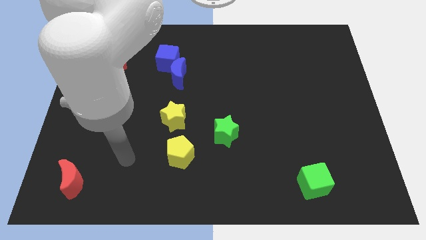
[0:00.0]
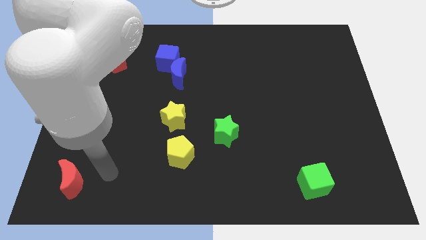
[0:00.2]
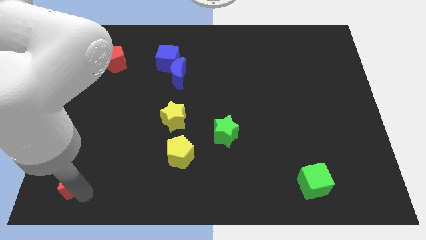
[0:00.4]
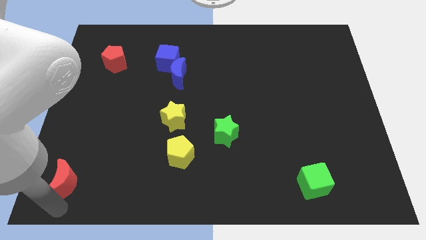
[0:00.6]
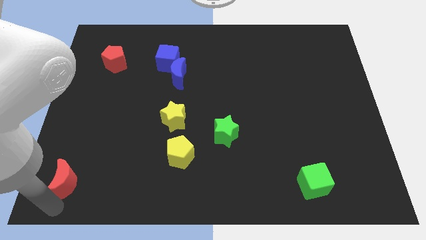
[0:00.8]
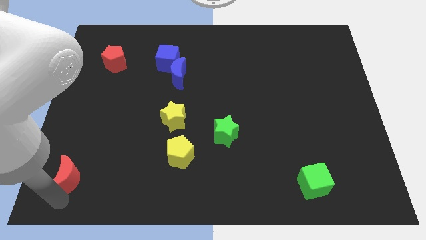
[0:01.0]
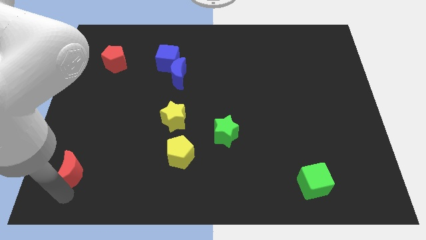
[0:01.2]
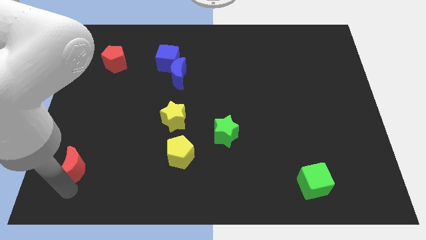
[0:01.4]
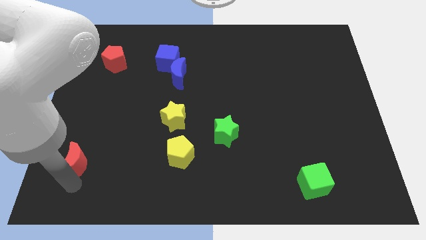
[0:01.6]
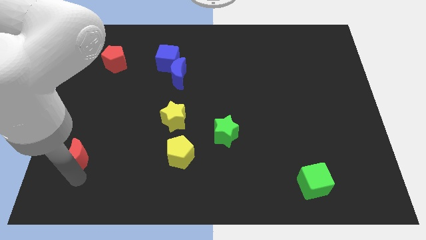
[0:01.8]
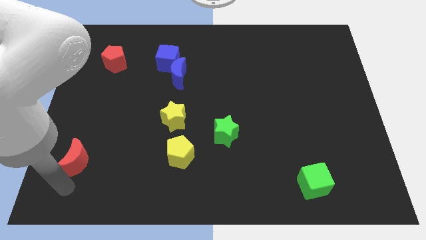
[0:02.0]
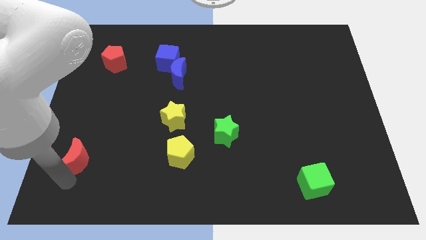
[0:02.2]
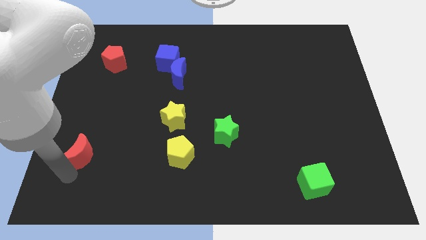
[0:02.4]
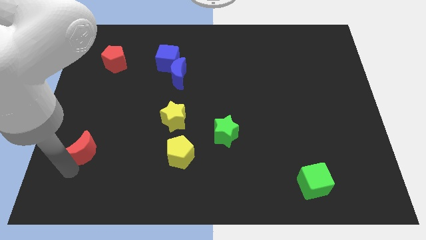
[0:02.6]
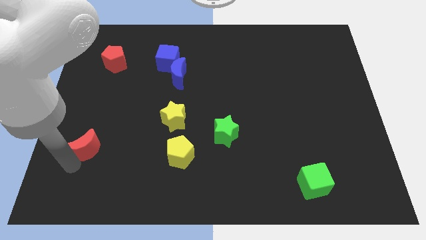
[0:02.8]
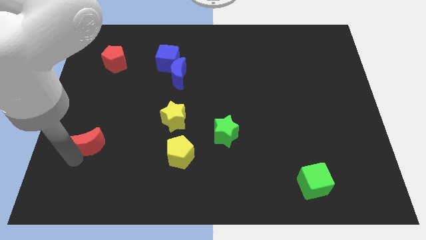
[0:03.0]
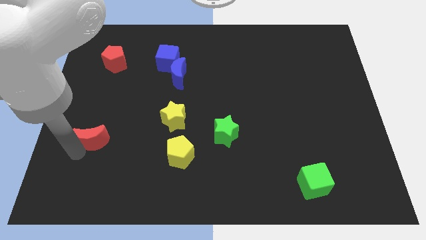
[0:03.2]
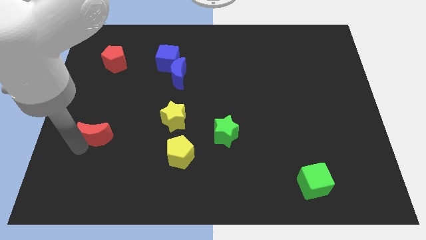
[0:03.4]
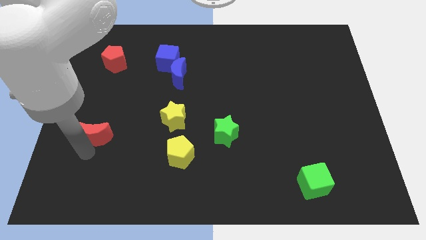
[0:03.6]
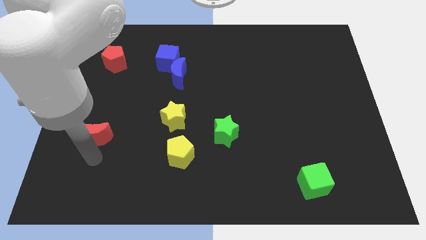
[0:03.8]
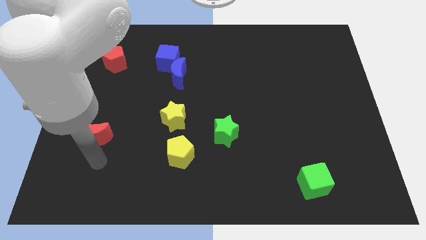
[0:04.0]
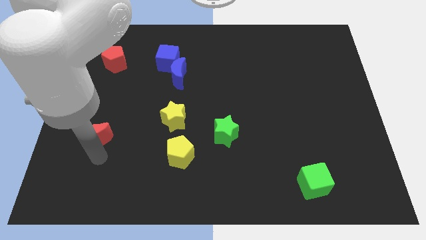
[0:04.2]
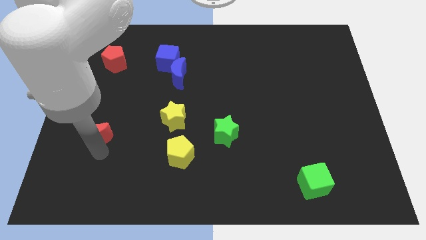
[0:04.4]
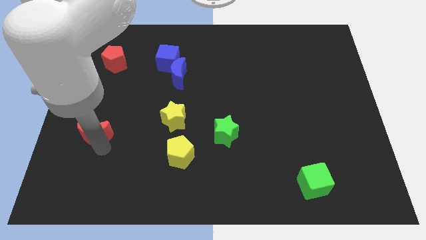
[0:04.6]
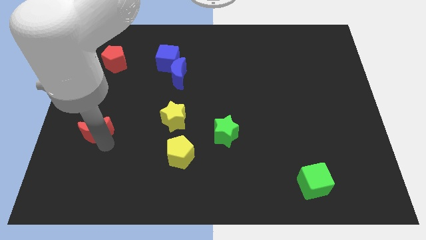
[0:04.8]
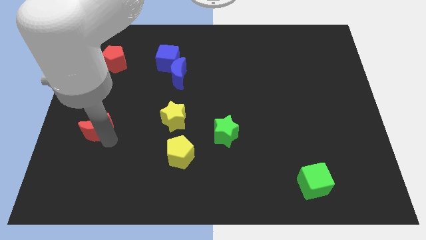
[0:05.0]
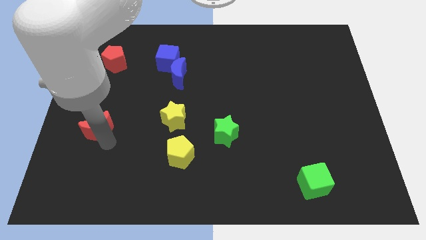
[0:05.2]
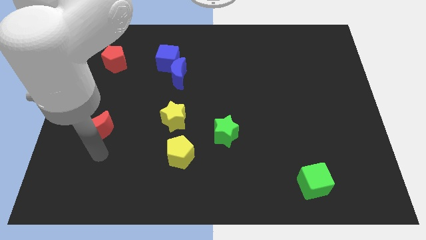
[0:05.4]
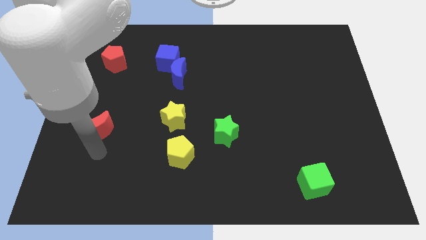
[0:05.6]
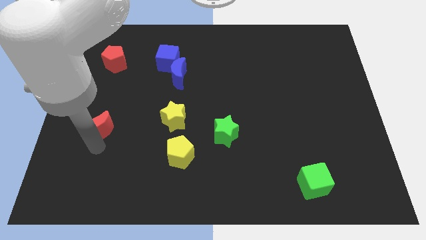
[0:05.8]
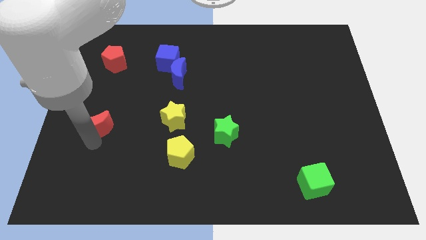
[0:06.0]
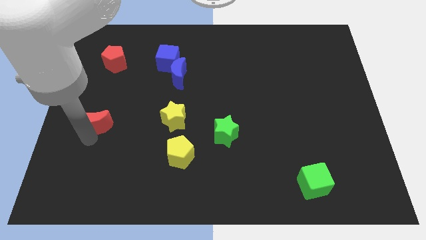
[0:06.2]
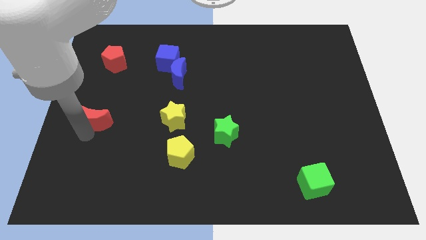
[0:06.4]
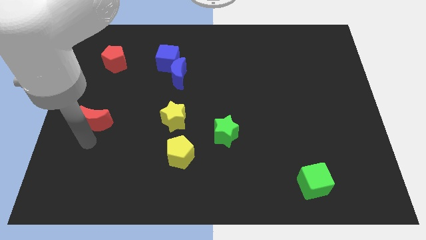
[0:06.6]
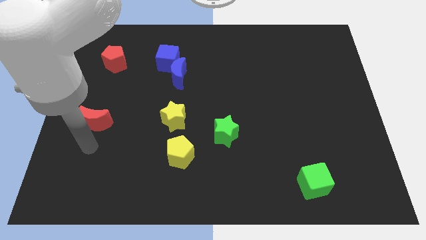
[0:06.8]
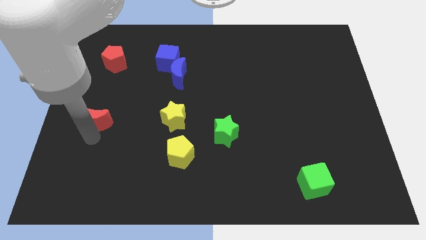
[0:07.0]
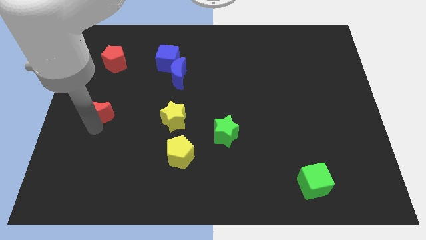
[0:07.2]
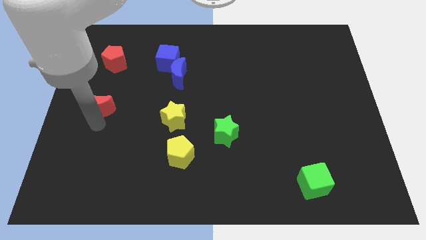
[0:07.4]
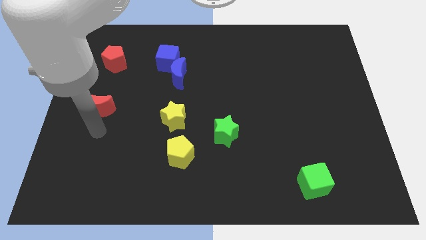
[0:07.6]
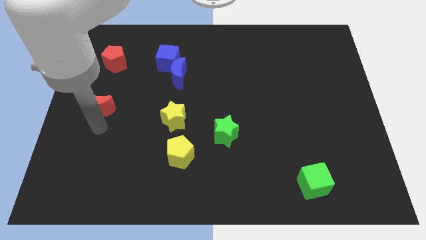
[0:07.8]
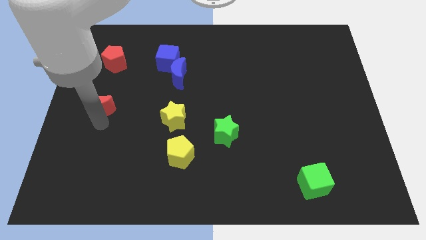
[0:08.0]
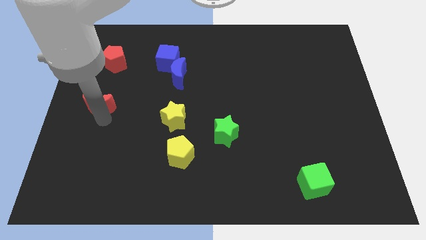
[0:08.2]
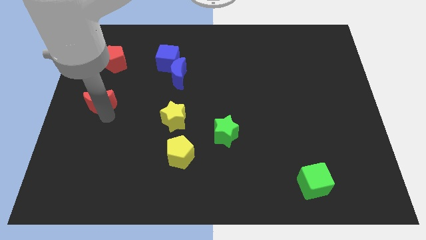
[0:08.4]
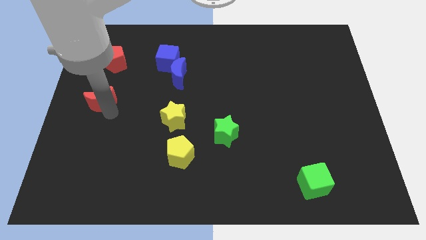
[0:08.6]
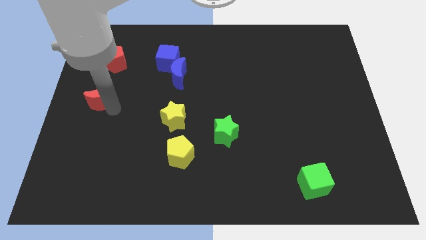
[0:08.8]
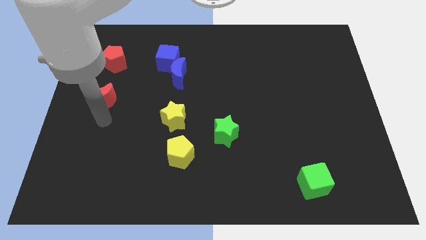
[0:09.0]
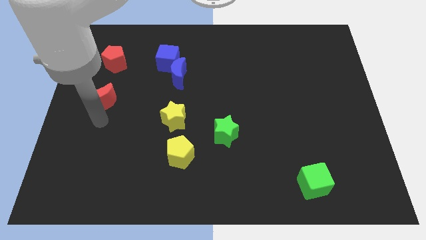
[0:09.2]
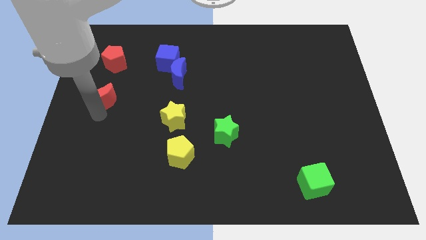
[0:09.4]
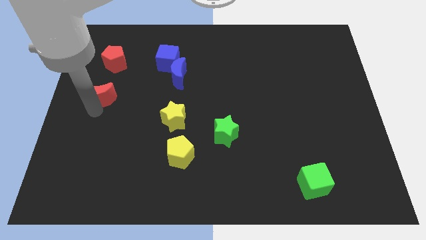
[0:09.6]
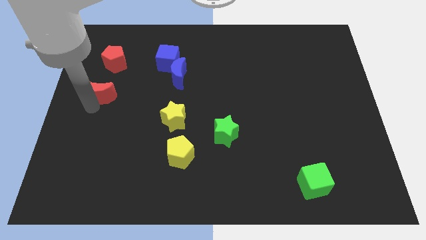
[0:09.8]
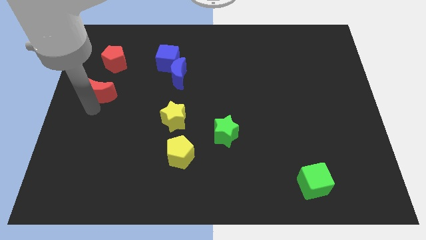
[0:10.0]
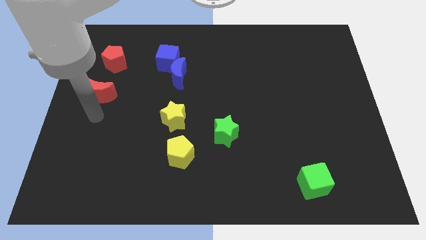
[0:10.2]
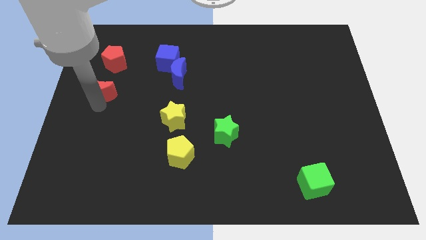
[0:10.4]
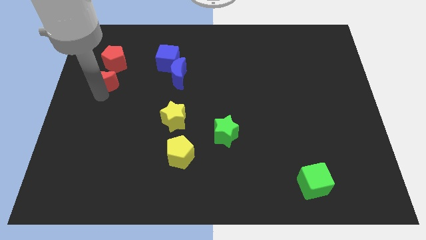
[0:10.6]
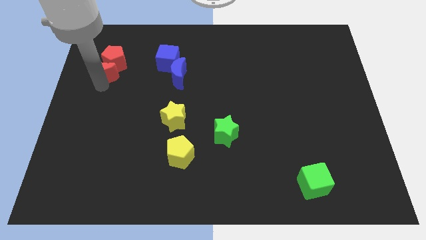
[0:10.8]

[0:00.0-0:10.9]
put the red moon close to the red pentagon

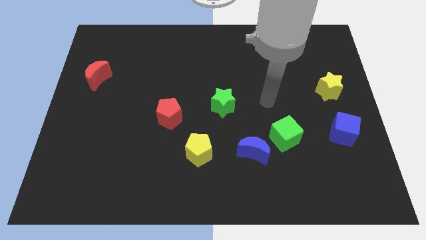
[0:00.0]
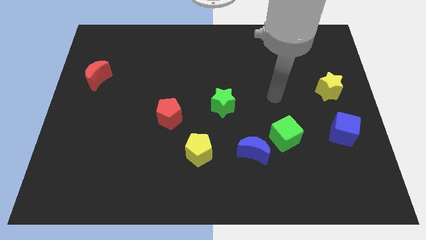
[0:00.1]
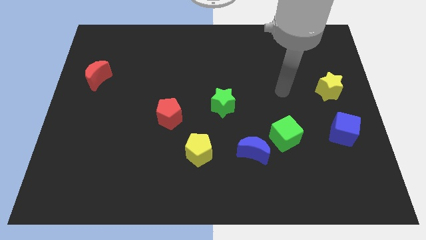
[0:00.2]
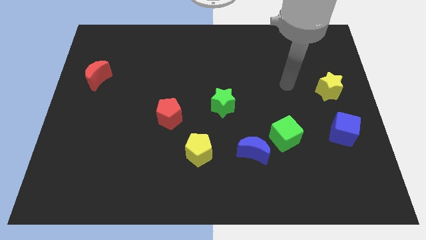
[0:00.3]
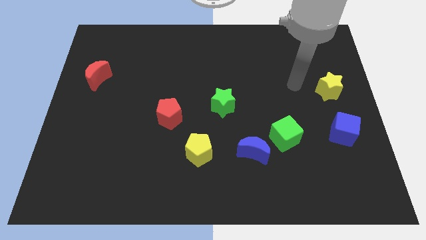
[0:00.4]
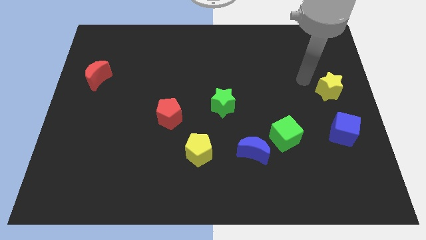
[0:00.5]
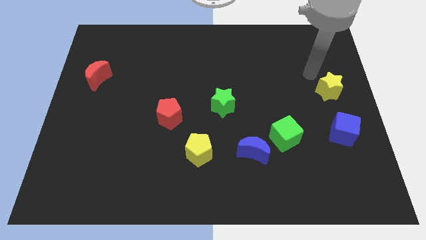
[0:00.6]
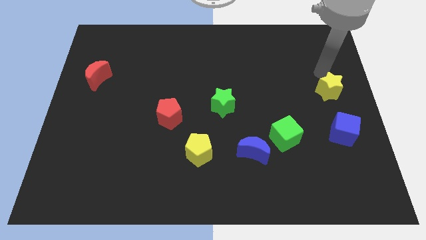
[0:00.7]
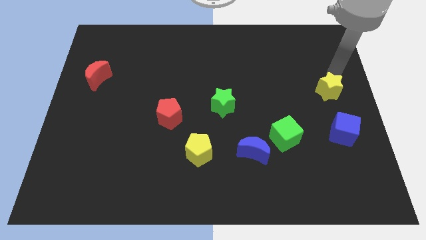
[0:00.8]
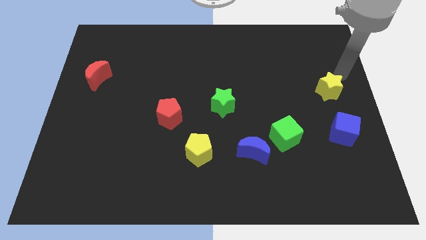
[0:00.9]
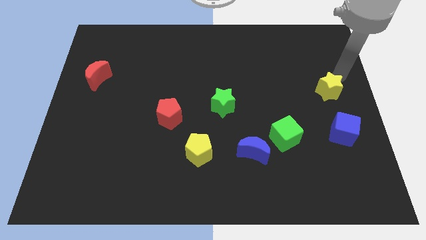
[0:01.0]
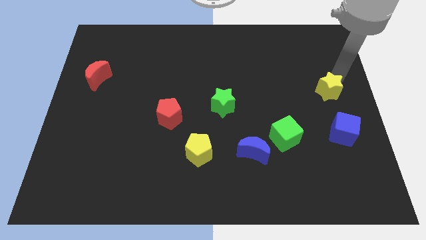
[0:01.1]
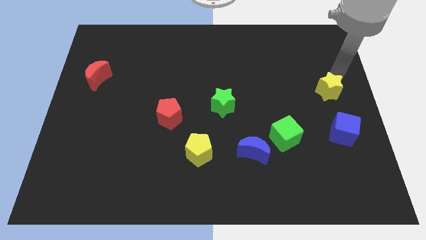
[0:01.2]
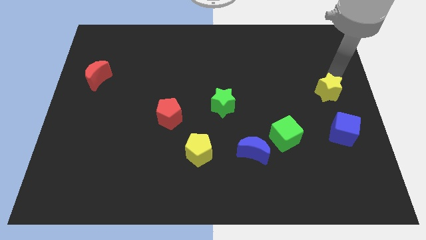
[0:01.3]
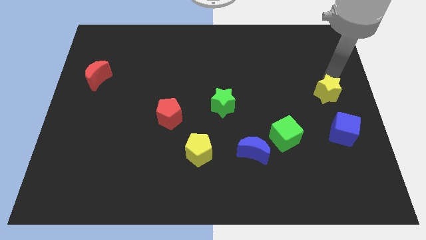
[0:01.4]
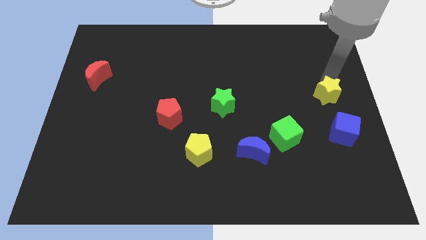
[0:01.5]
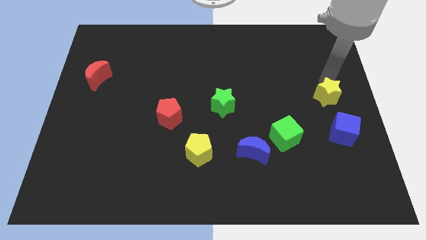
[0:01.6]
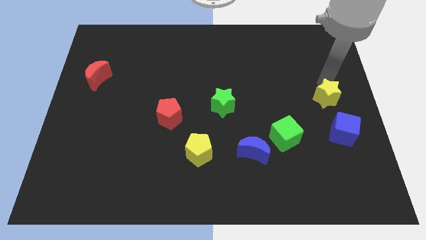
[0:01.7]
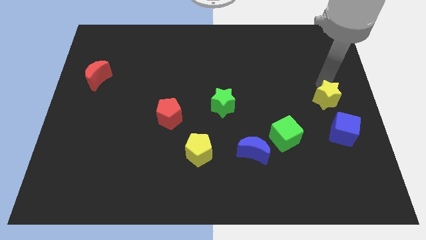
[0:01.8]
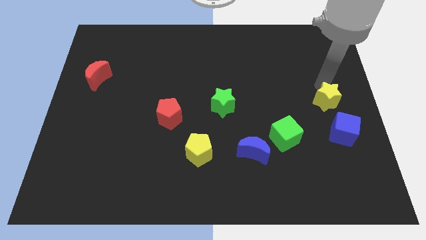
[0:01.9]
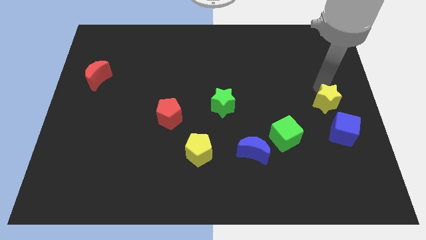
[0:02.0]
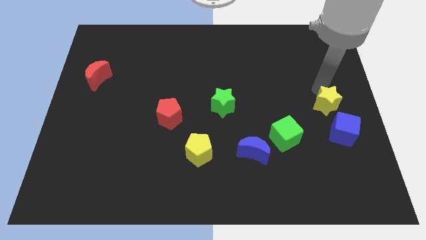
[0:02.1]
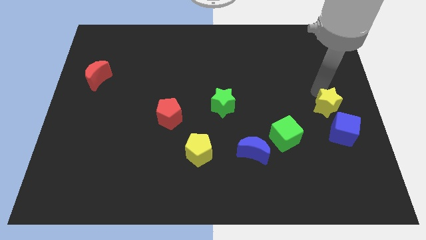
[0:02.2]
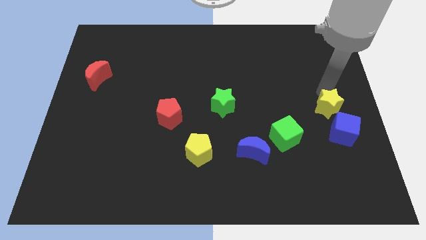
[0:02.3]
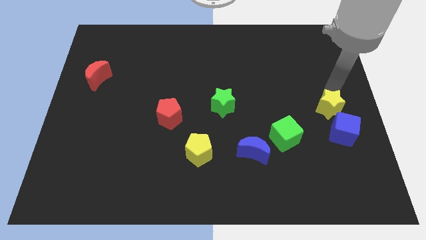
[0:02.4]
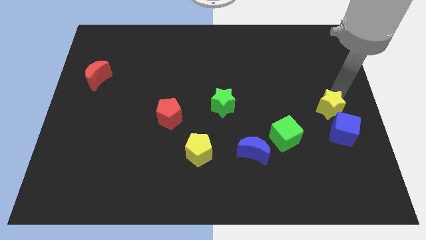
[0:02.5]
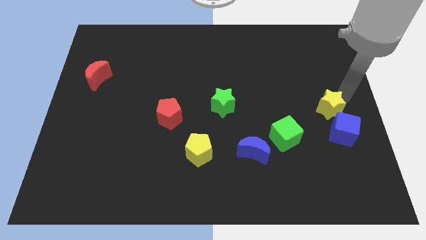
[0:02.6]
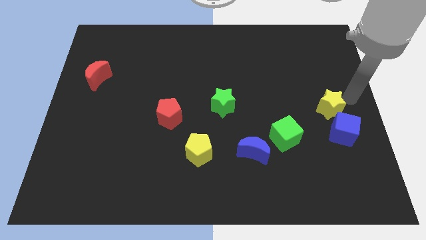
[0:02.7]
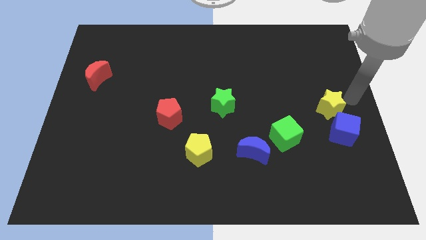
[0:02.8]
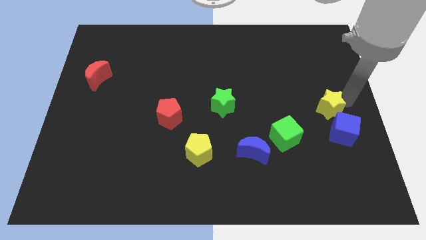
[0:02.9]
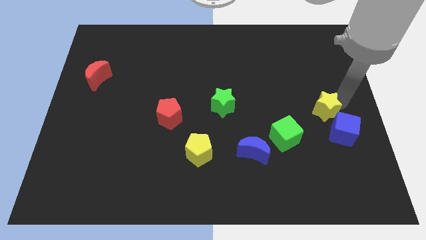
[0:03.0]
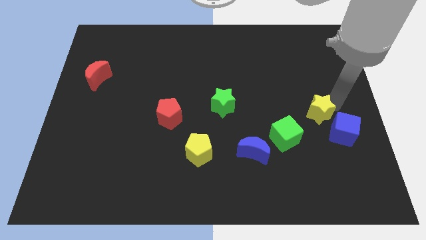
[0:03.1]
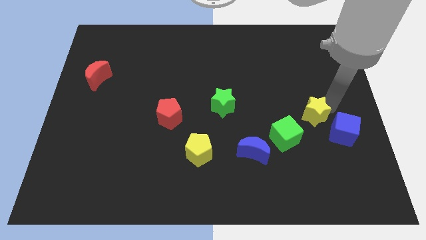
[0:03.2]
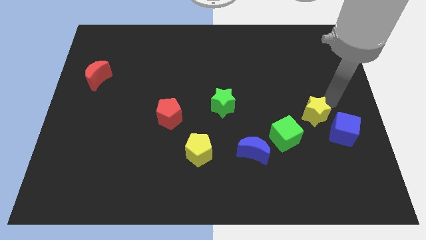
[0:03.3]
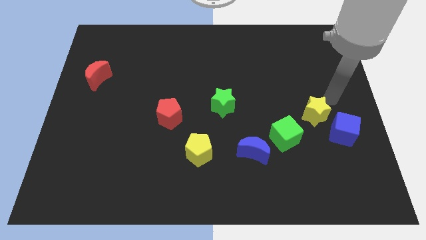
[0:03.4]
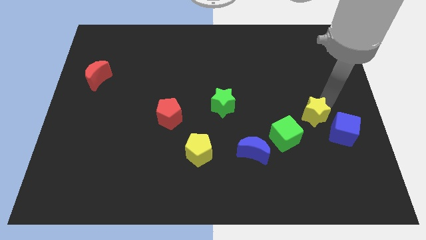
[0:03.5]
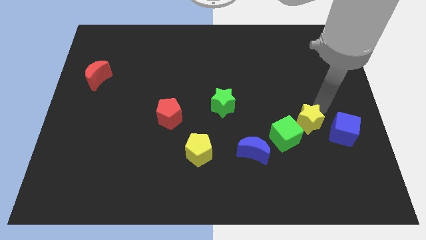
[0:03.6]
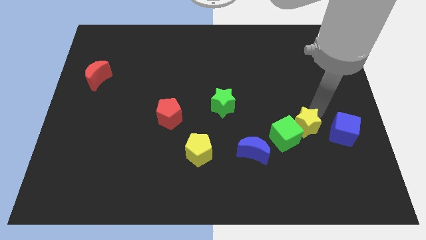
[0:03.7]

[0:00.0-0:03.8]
put the yellow star next to the green cube
